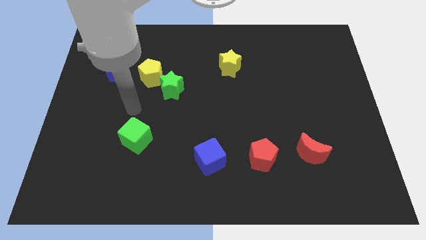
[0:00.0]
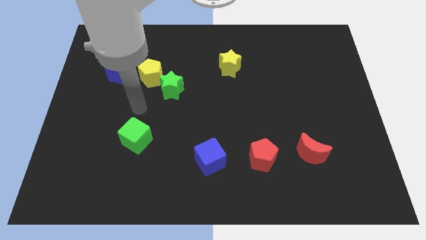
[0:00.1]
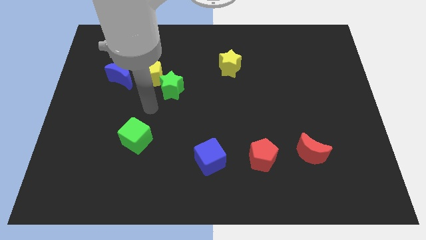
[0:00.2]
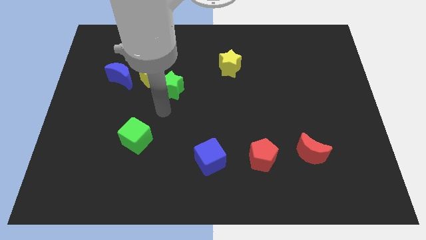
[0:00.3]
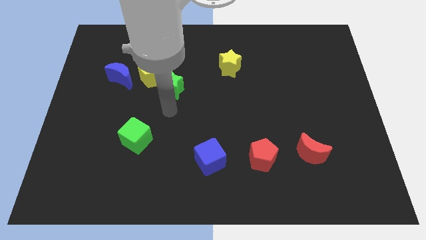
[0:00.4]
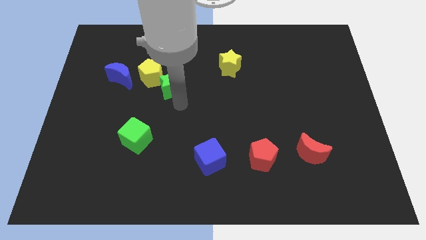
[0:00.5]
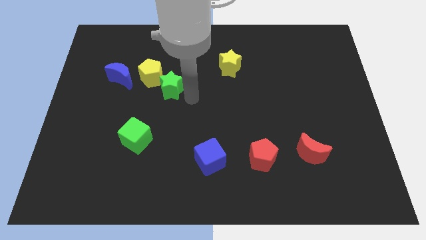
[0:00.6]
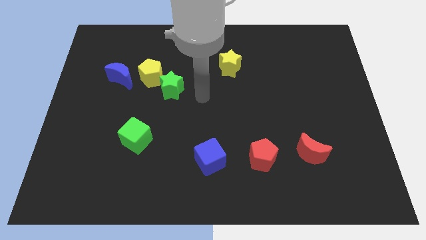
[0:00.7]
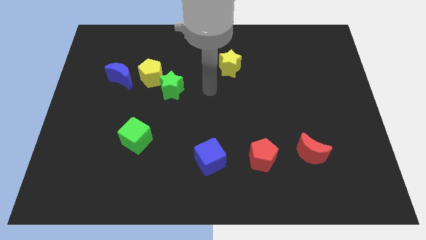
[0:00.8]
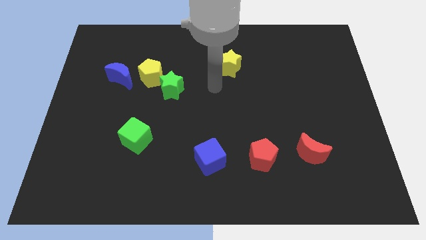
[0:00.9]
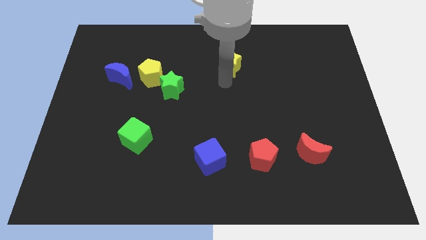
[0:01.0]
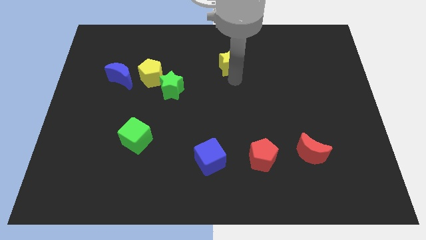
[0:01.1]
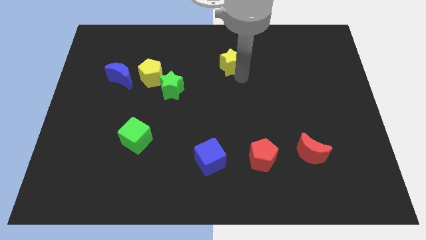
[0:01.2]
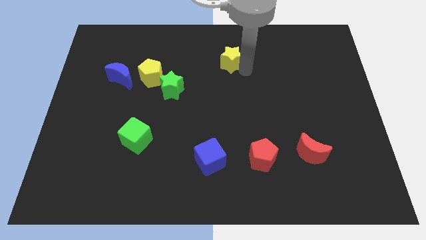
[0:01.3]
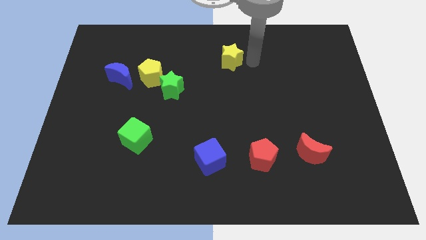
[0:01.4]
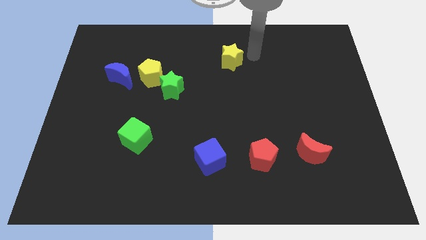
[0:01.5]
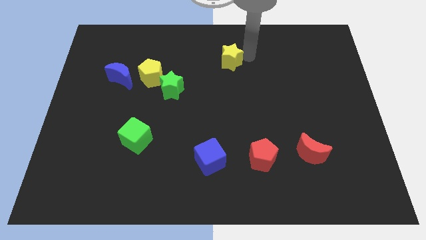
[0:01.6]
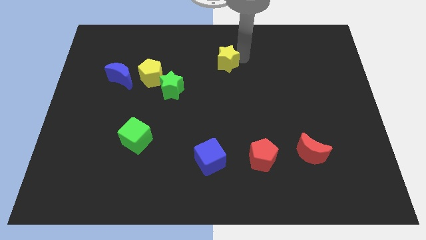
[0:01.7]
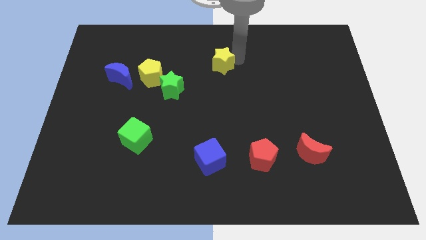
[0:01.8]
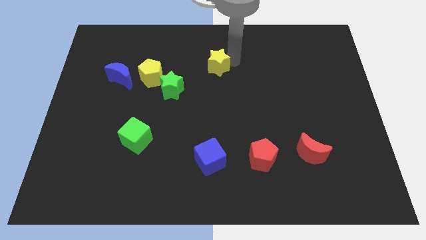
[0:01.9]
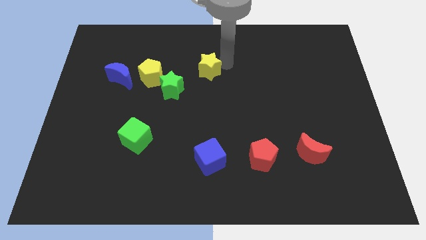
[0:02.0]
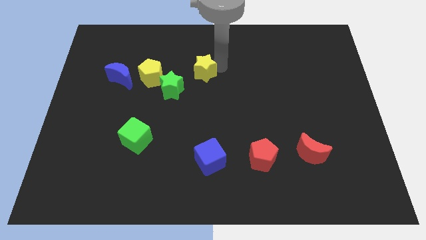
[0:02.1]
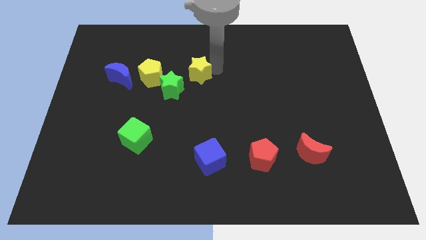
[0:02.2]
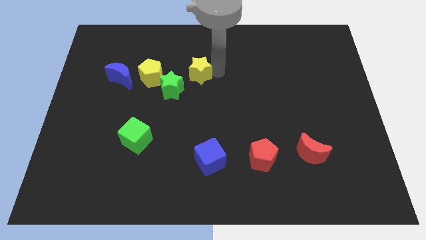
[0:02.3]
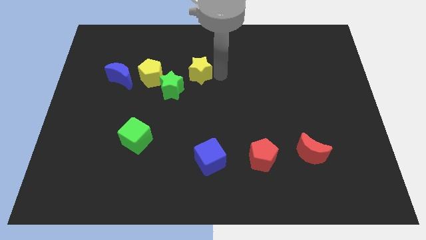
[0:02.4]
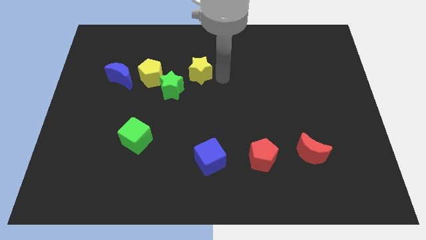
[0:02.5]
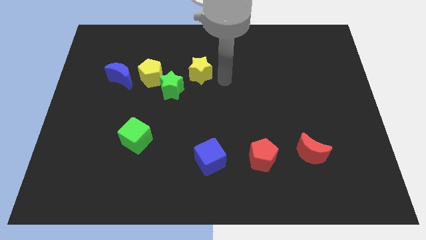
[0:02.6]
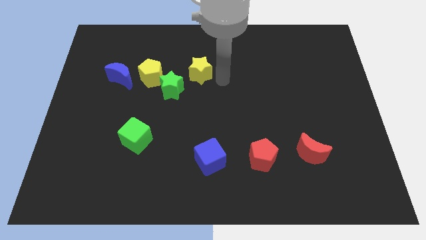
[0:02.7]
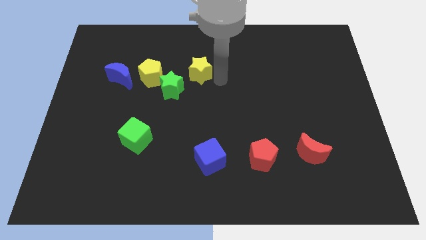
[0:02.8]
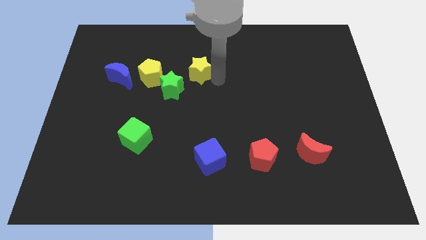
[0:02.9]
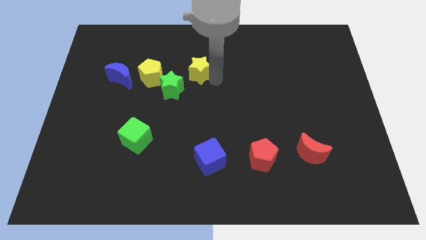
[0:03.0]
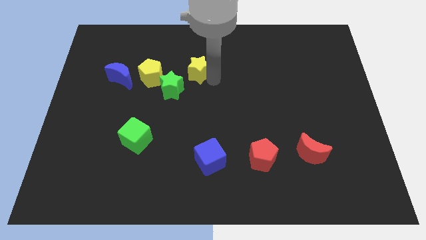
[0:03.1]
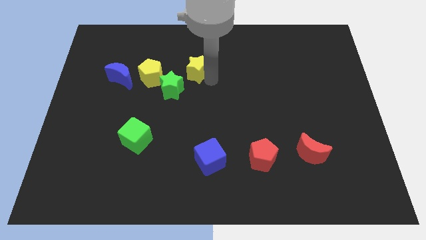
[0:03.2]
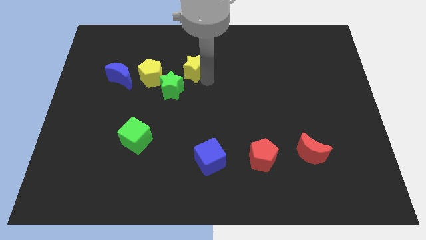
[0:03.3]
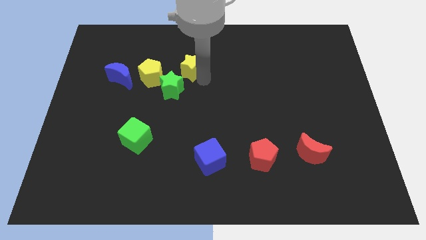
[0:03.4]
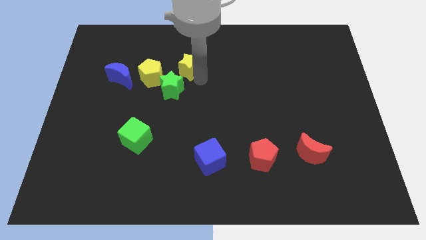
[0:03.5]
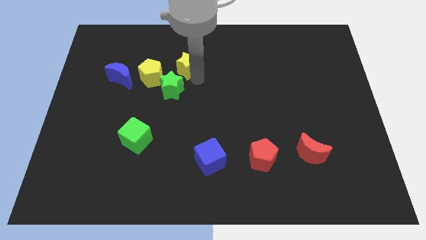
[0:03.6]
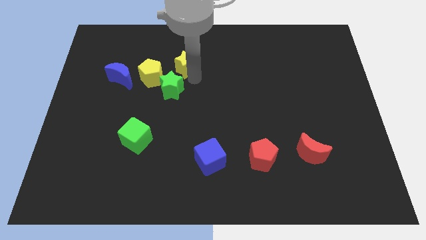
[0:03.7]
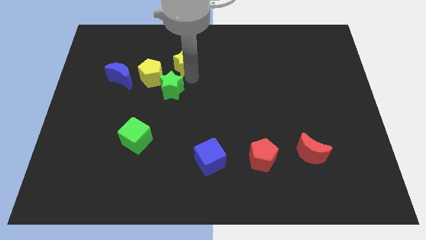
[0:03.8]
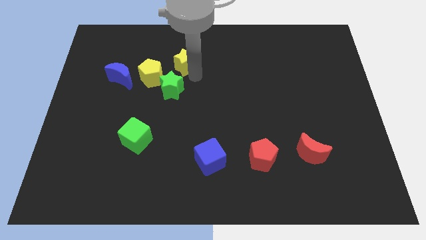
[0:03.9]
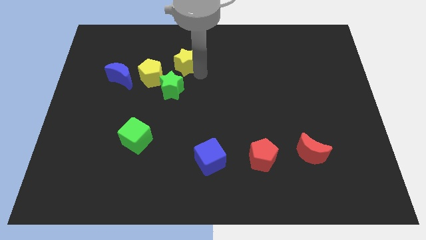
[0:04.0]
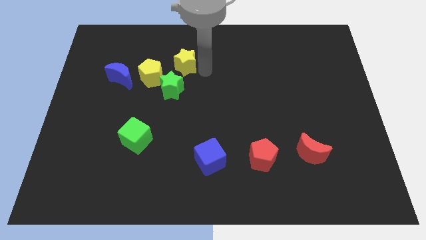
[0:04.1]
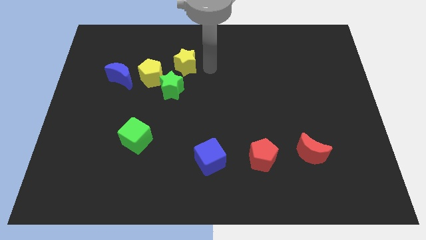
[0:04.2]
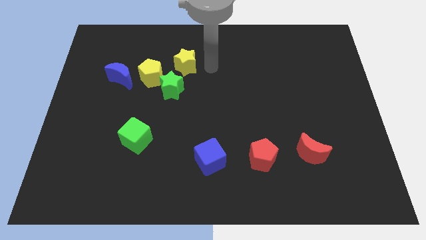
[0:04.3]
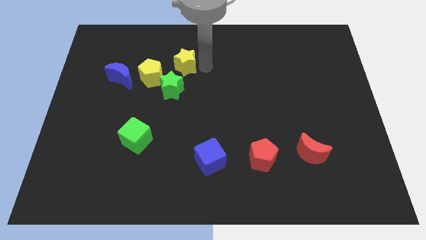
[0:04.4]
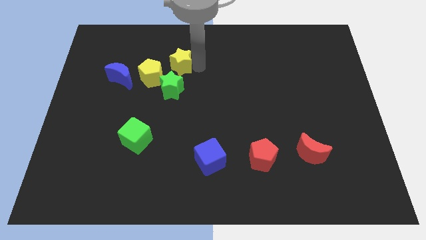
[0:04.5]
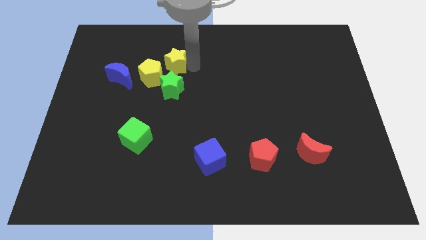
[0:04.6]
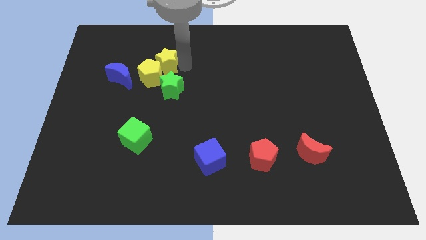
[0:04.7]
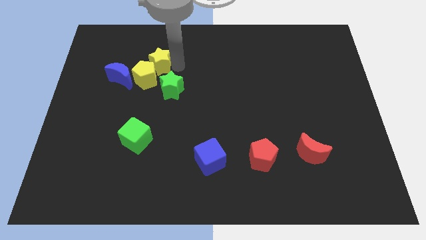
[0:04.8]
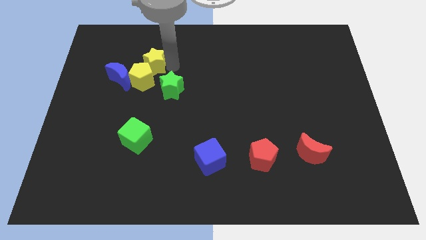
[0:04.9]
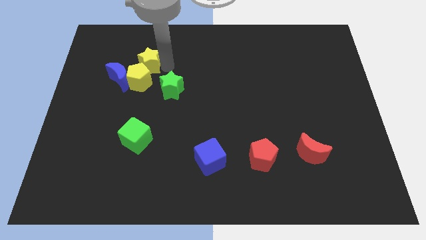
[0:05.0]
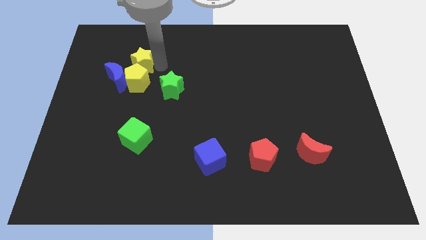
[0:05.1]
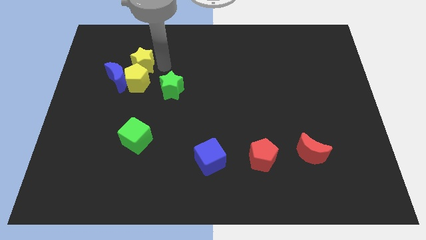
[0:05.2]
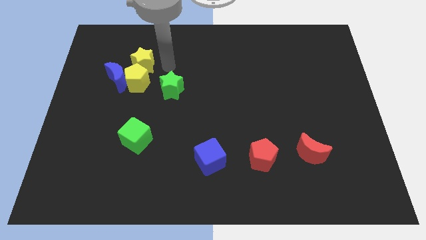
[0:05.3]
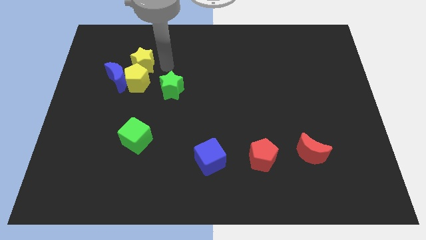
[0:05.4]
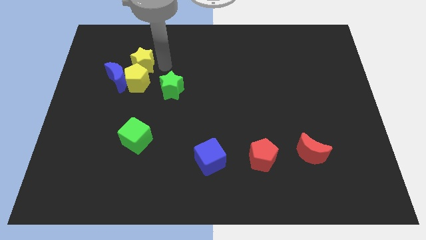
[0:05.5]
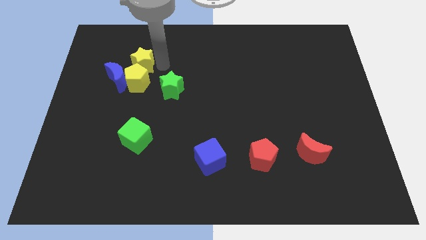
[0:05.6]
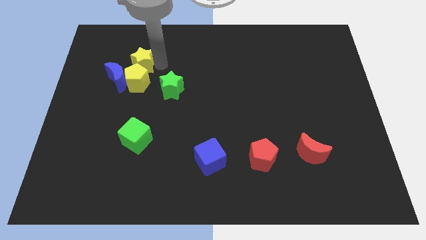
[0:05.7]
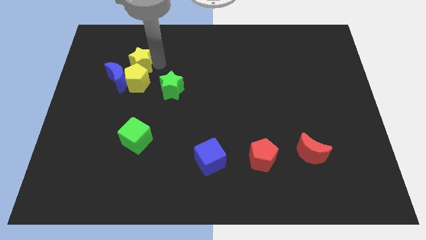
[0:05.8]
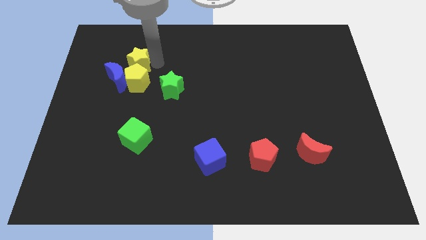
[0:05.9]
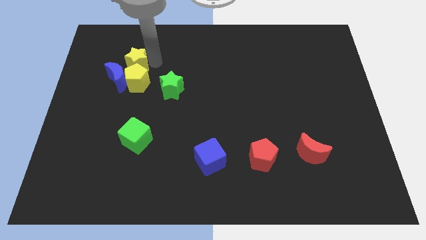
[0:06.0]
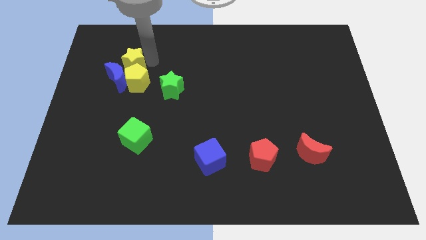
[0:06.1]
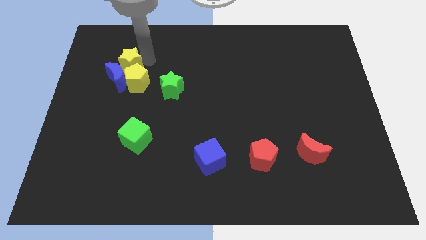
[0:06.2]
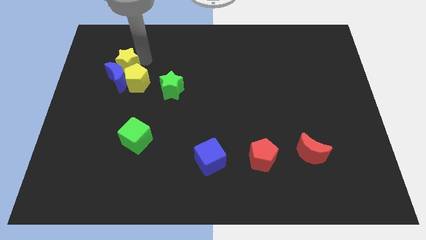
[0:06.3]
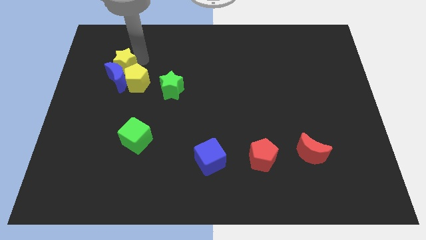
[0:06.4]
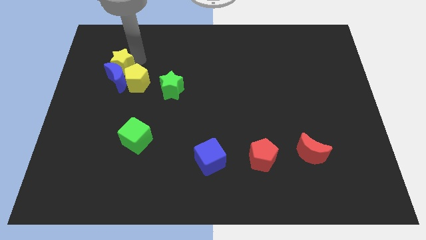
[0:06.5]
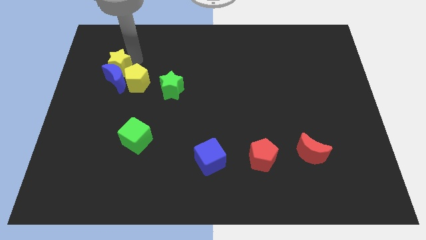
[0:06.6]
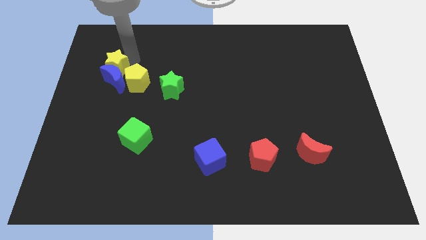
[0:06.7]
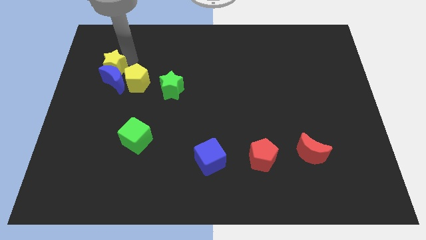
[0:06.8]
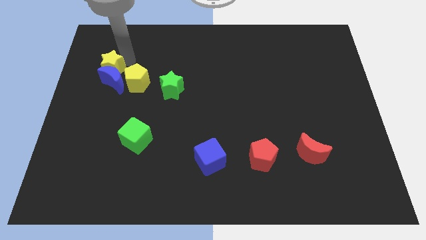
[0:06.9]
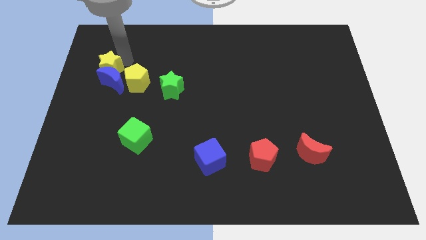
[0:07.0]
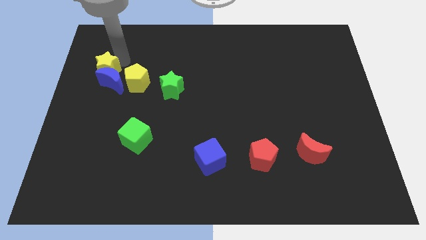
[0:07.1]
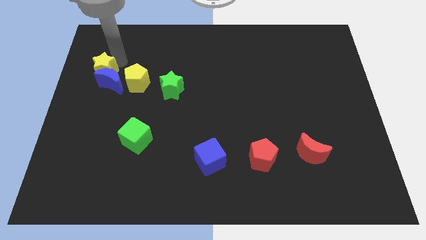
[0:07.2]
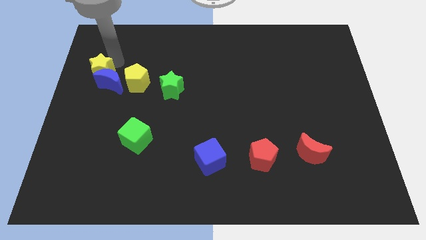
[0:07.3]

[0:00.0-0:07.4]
put the yellow star to the center left
